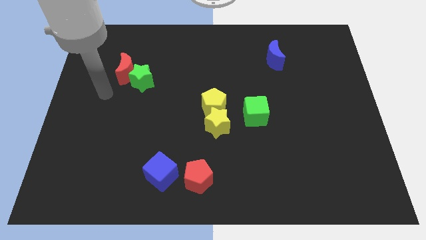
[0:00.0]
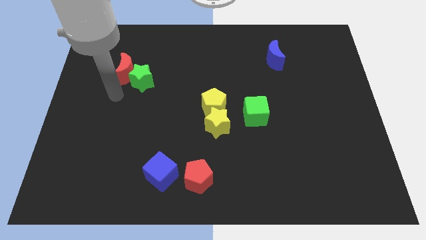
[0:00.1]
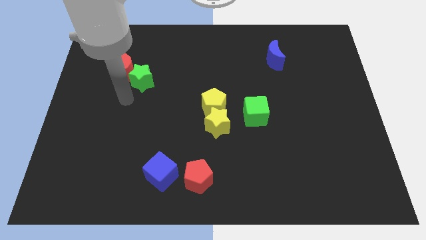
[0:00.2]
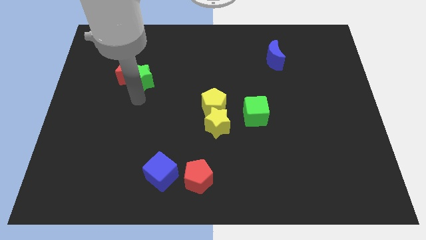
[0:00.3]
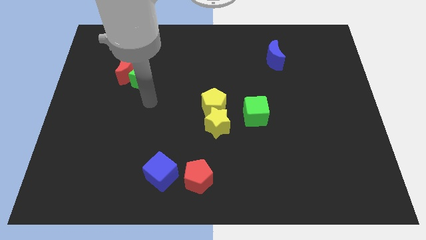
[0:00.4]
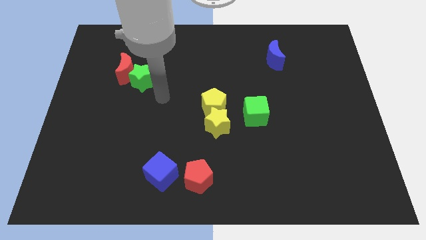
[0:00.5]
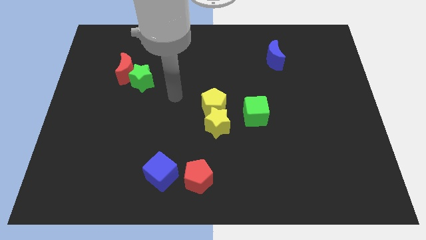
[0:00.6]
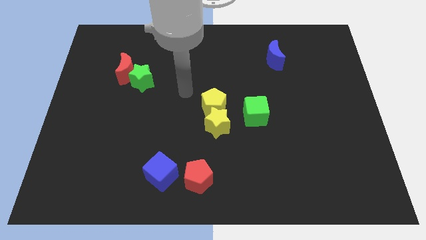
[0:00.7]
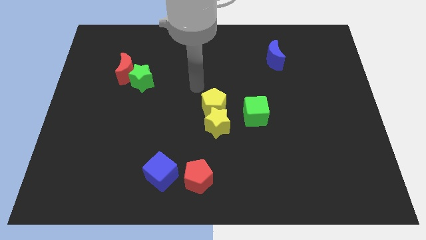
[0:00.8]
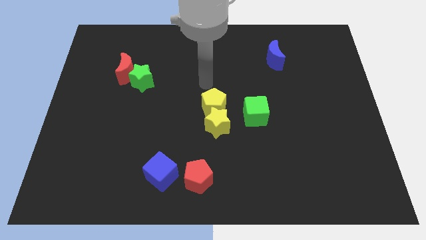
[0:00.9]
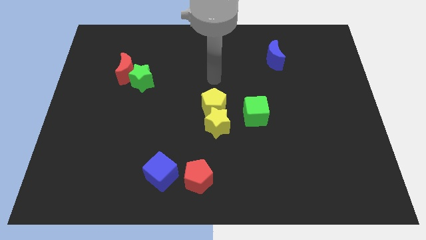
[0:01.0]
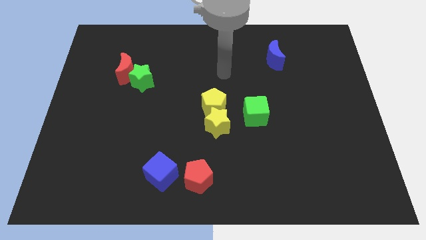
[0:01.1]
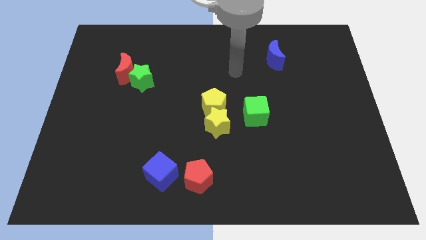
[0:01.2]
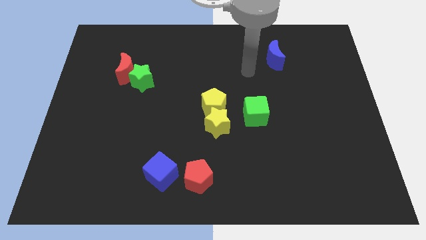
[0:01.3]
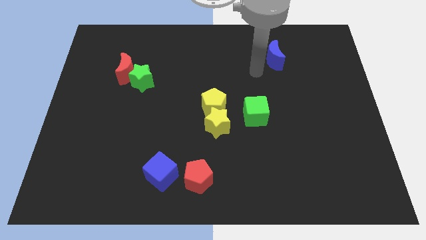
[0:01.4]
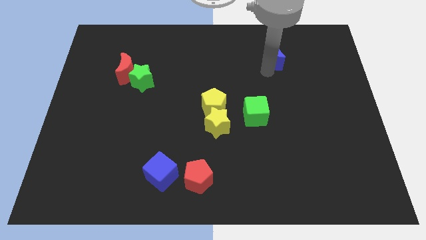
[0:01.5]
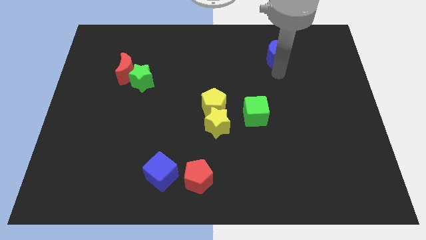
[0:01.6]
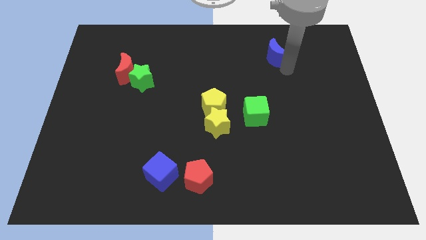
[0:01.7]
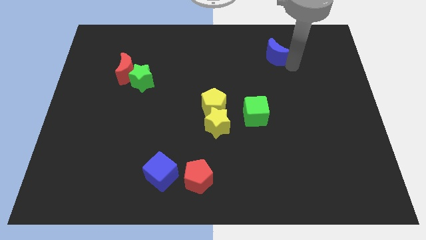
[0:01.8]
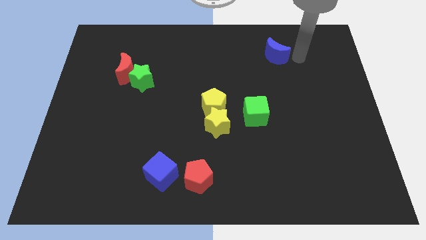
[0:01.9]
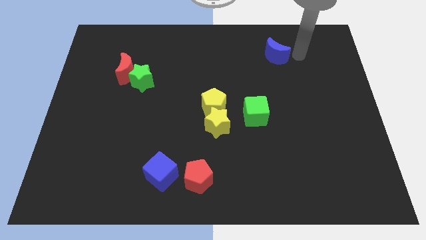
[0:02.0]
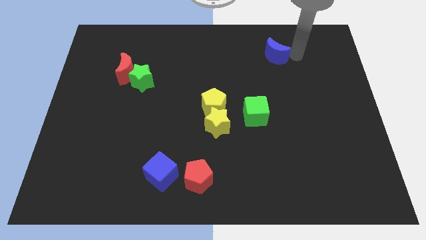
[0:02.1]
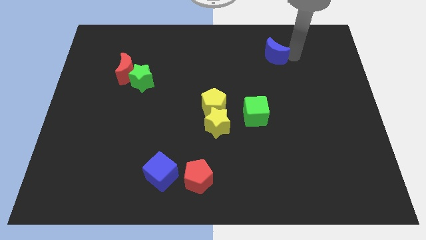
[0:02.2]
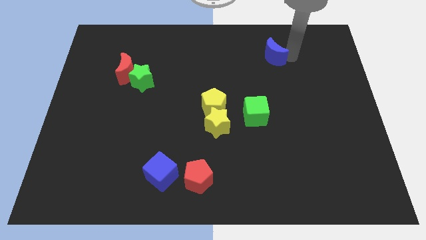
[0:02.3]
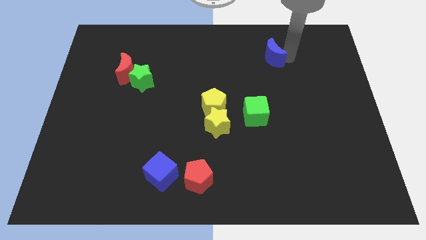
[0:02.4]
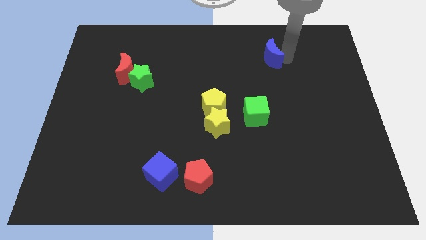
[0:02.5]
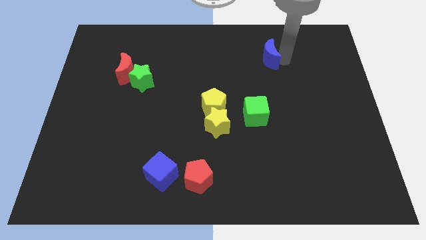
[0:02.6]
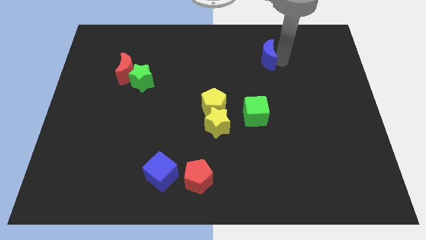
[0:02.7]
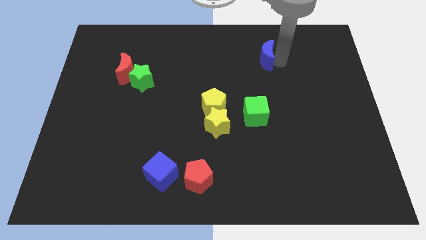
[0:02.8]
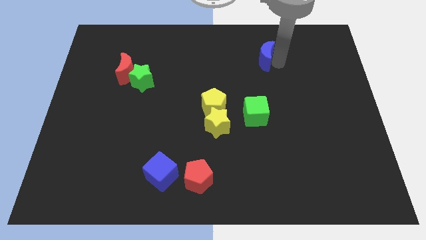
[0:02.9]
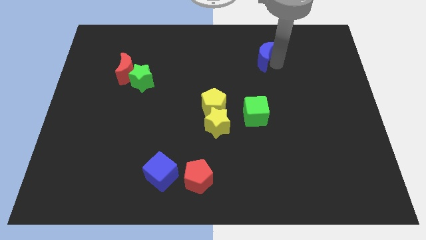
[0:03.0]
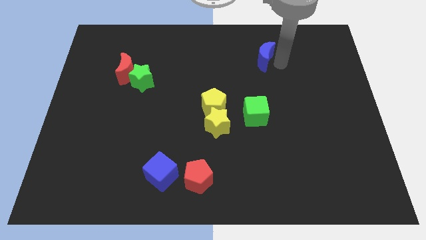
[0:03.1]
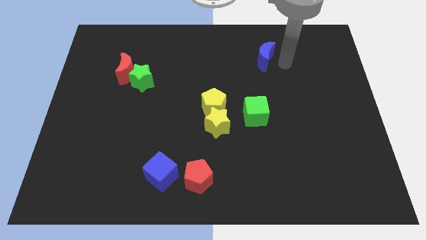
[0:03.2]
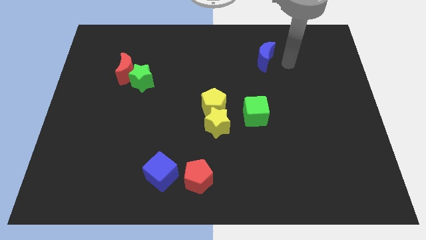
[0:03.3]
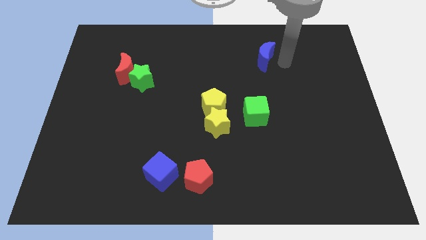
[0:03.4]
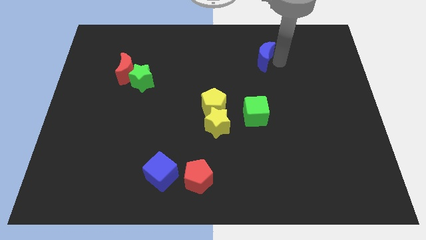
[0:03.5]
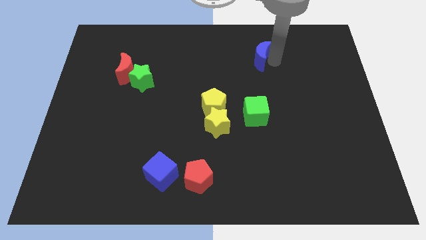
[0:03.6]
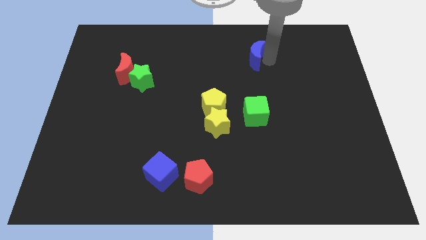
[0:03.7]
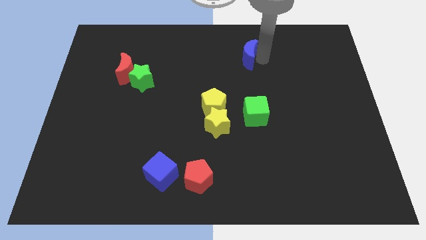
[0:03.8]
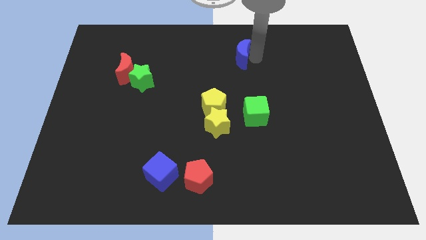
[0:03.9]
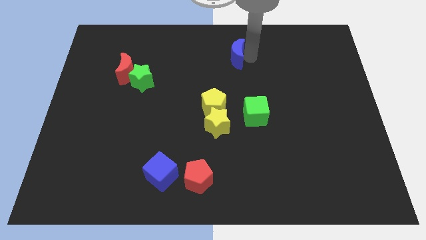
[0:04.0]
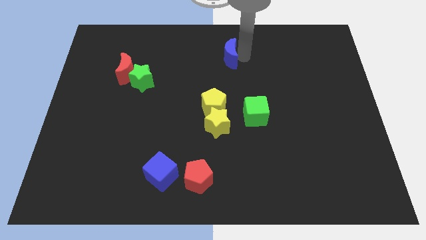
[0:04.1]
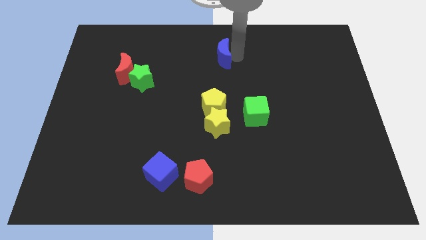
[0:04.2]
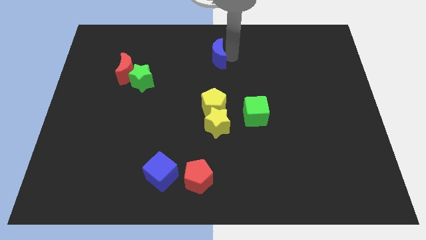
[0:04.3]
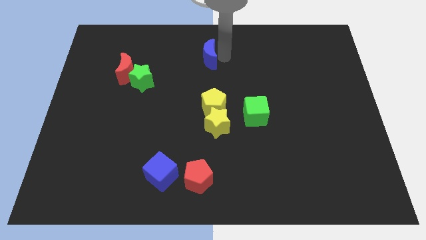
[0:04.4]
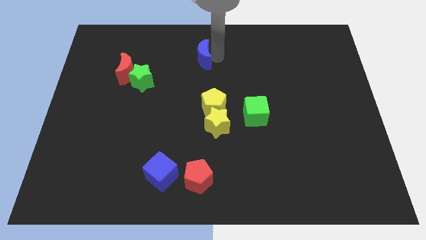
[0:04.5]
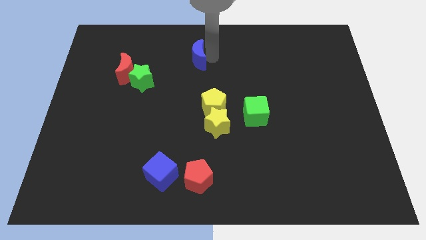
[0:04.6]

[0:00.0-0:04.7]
slide the blue moon to the left

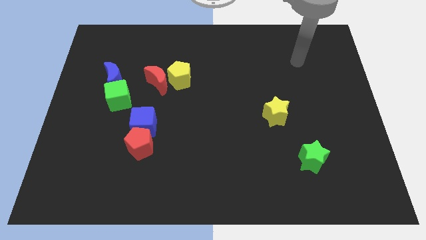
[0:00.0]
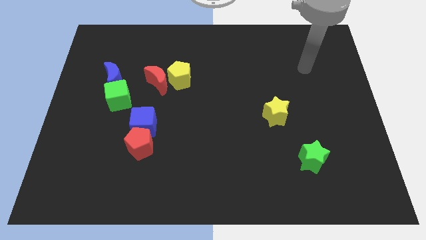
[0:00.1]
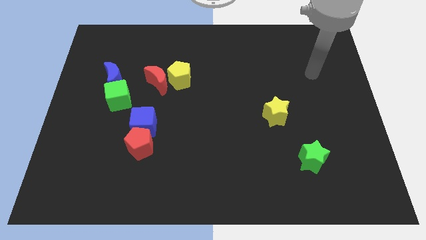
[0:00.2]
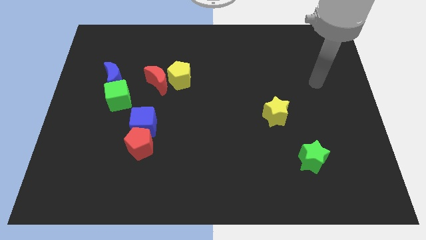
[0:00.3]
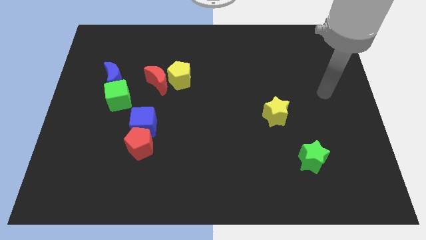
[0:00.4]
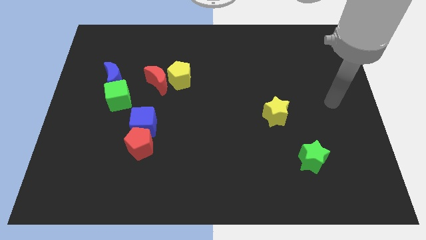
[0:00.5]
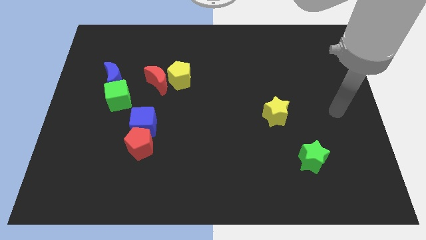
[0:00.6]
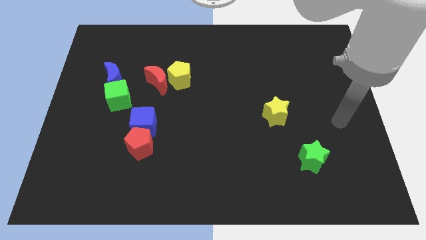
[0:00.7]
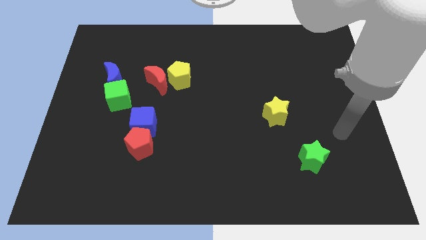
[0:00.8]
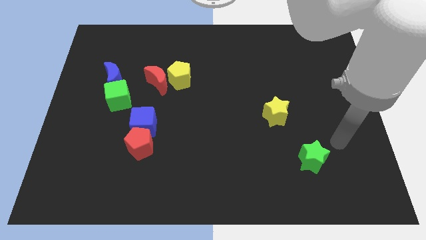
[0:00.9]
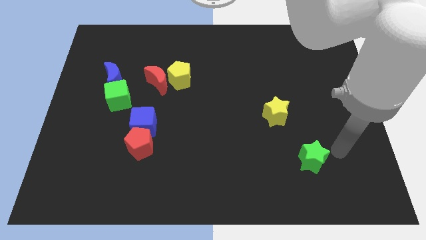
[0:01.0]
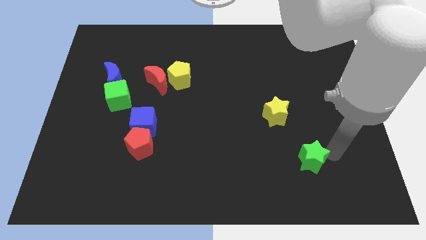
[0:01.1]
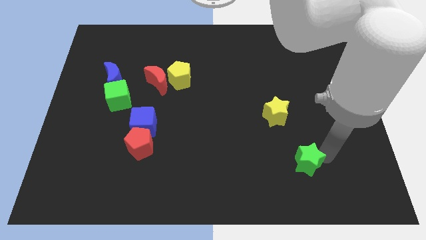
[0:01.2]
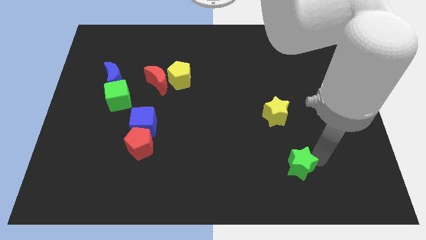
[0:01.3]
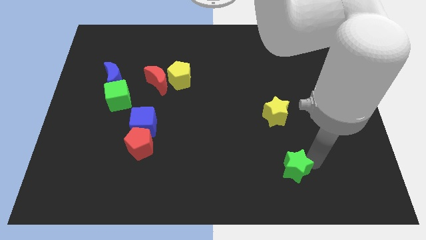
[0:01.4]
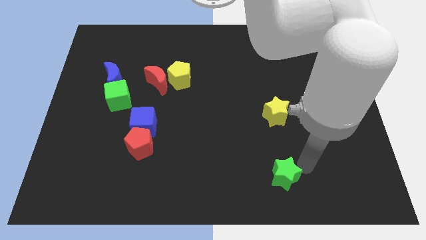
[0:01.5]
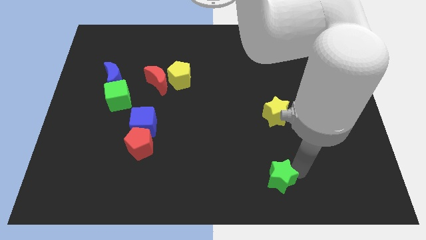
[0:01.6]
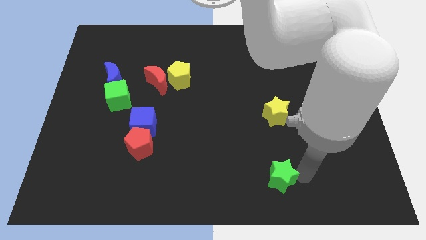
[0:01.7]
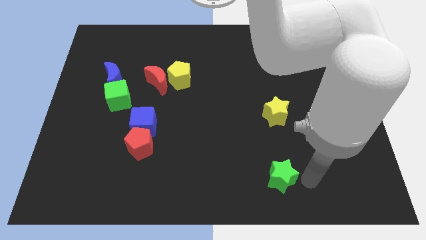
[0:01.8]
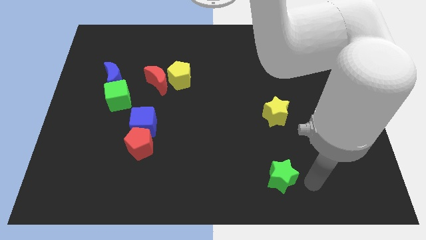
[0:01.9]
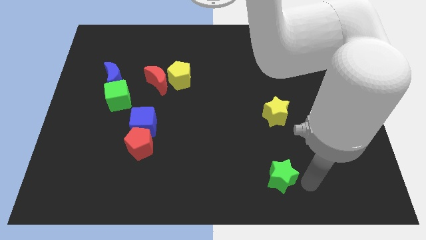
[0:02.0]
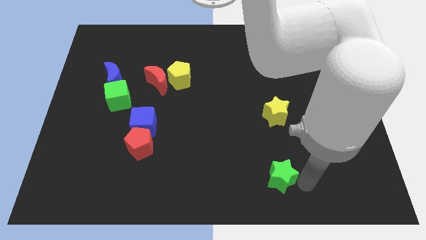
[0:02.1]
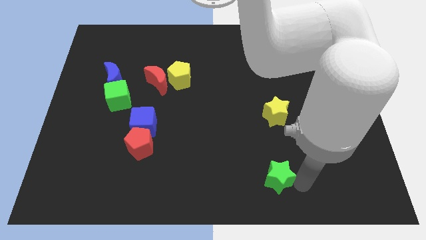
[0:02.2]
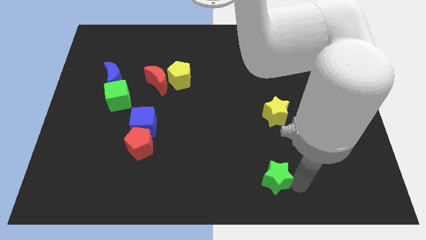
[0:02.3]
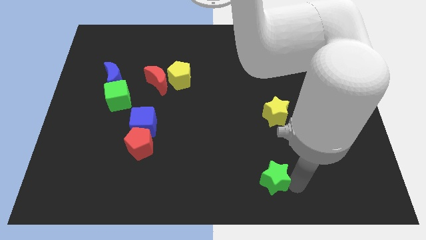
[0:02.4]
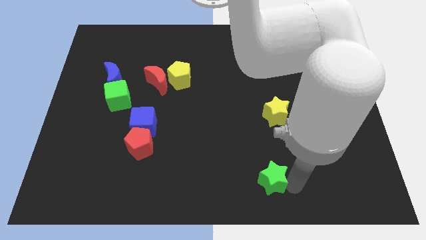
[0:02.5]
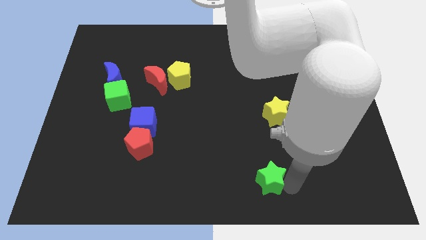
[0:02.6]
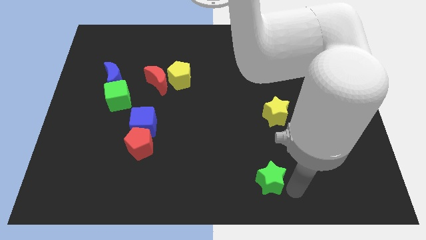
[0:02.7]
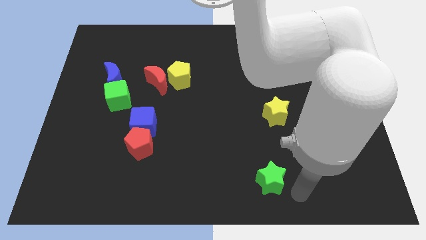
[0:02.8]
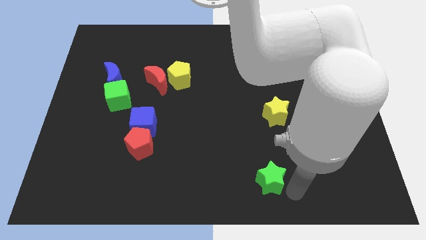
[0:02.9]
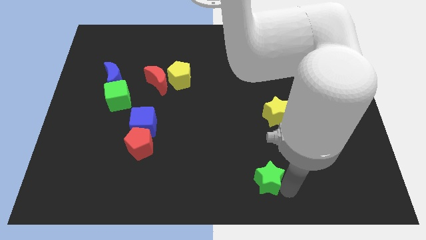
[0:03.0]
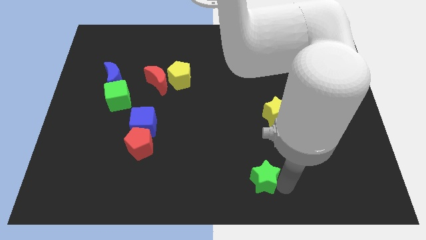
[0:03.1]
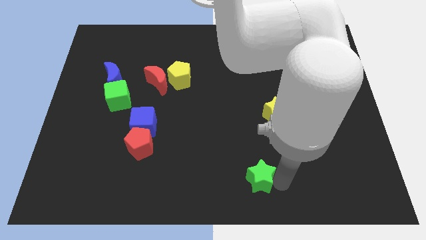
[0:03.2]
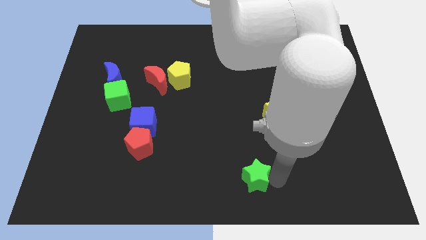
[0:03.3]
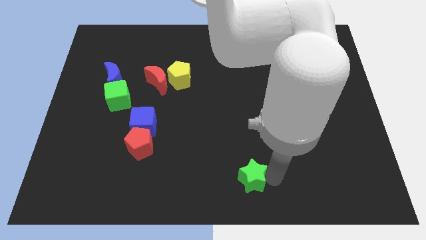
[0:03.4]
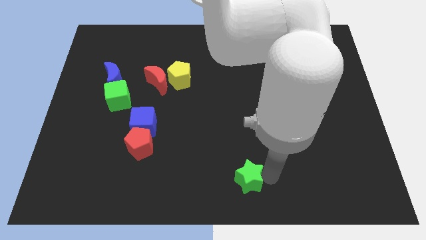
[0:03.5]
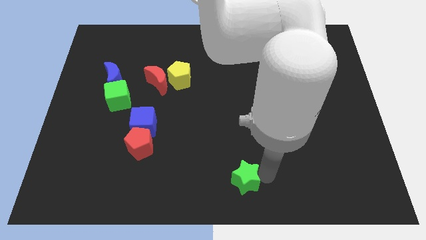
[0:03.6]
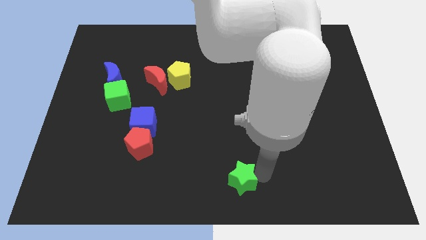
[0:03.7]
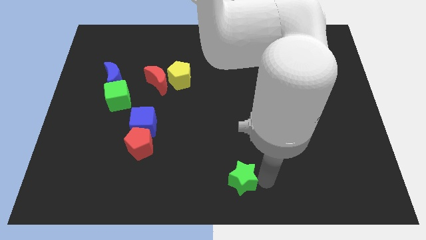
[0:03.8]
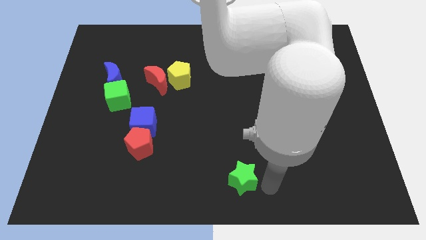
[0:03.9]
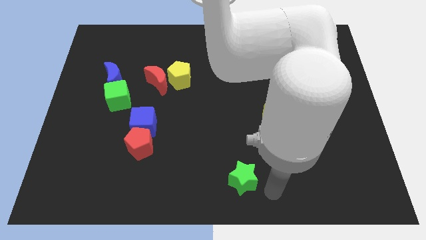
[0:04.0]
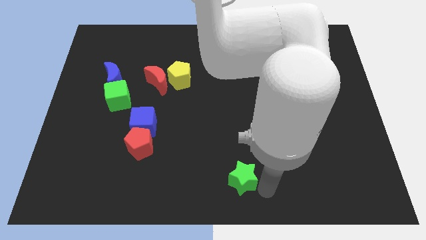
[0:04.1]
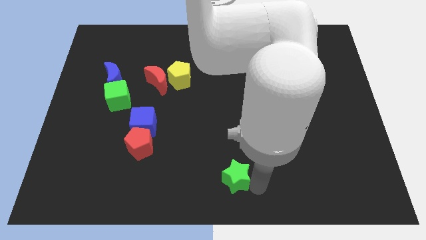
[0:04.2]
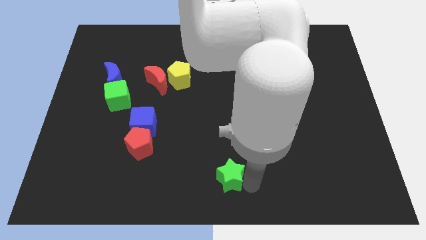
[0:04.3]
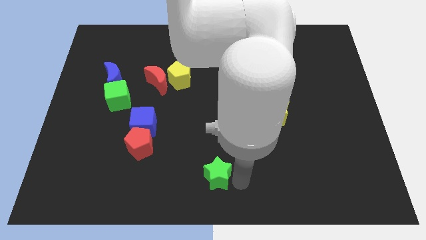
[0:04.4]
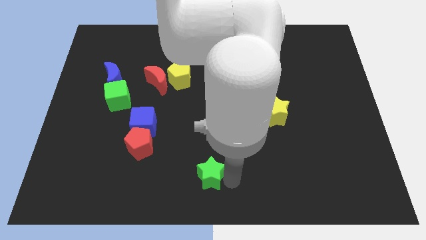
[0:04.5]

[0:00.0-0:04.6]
slide the green star to the left
